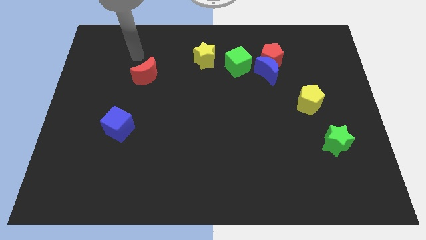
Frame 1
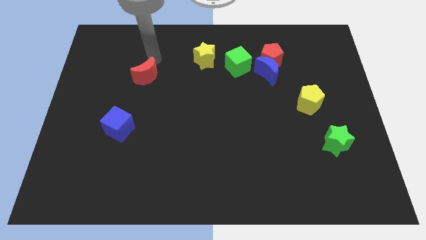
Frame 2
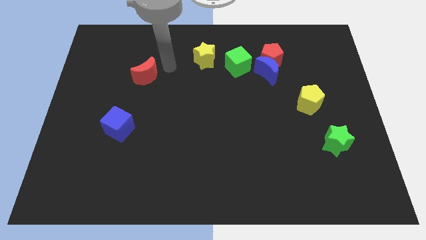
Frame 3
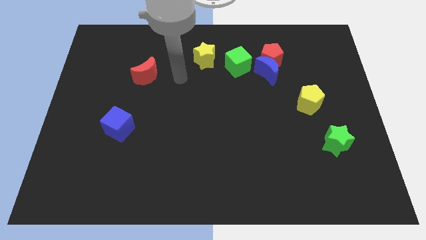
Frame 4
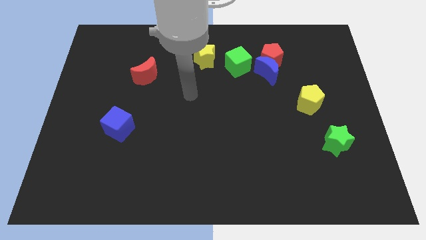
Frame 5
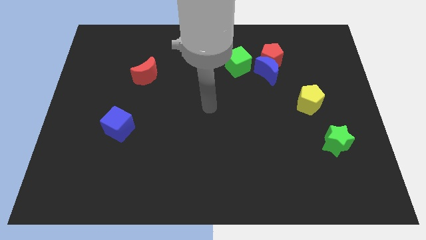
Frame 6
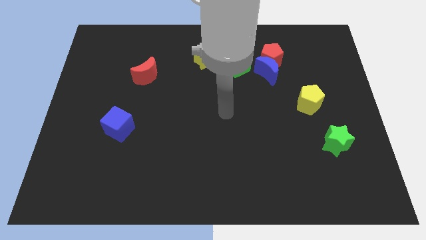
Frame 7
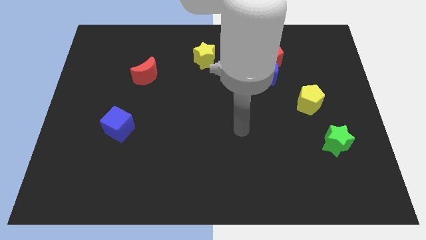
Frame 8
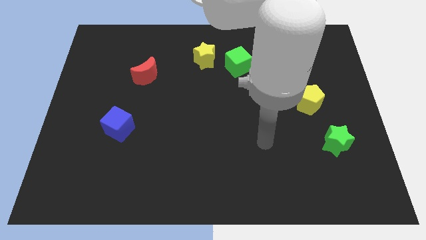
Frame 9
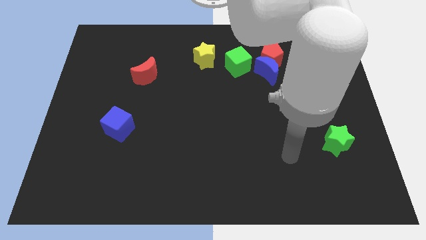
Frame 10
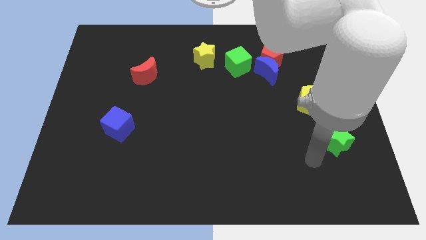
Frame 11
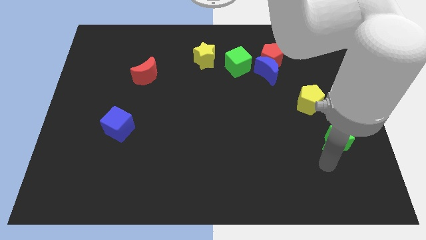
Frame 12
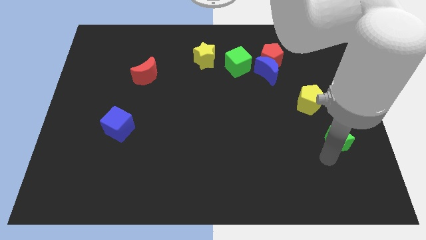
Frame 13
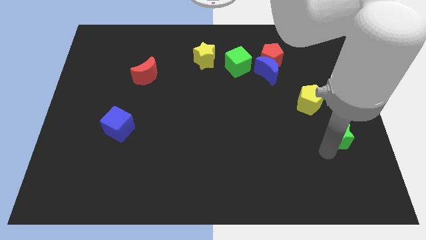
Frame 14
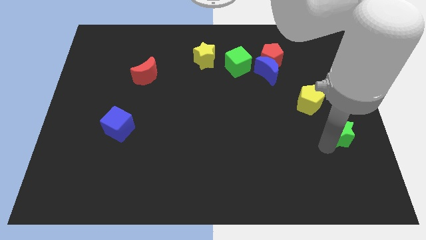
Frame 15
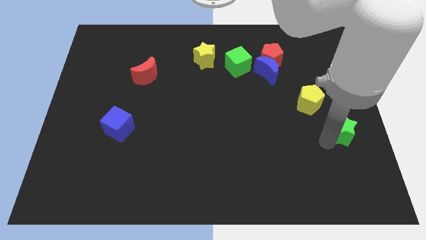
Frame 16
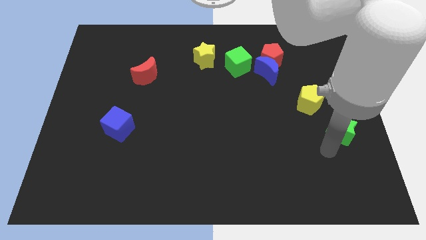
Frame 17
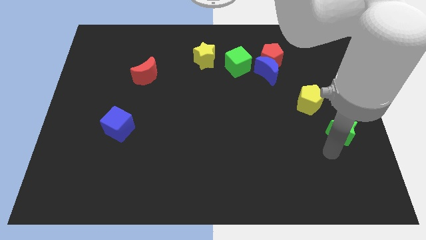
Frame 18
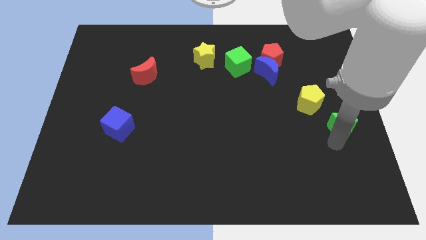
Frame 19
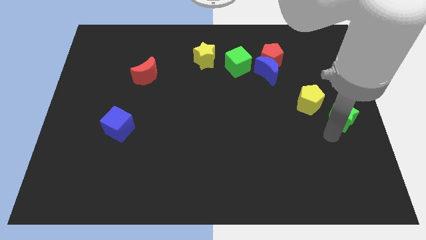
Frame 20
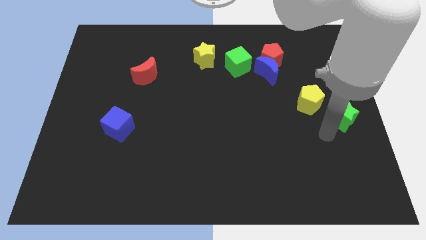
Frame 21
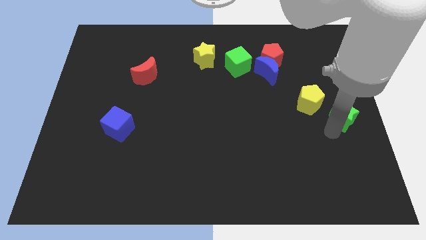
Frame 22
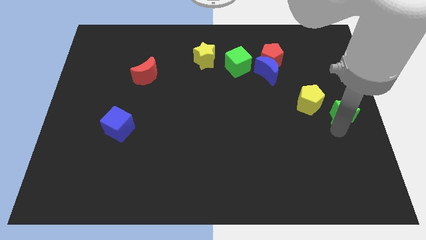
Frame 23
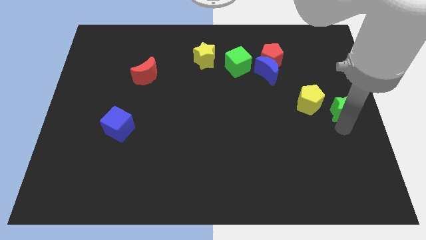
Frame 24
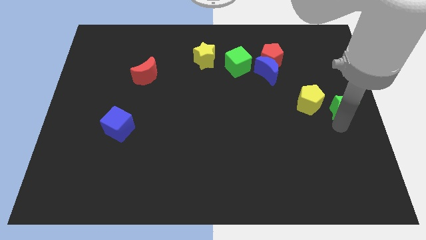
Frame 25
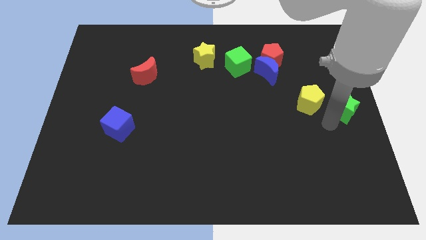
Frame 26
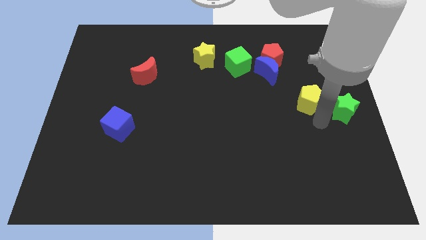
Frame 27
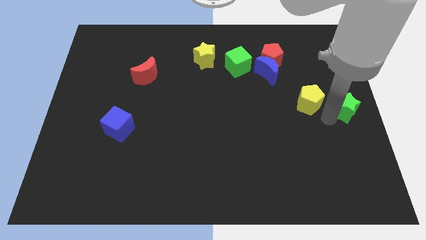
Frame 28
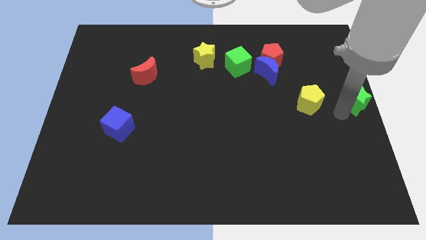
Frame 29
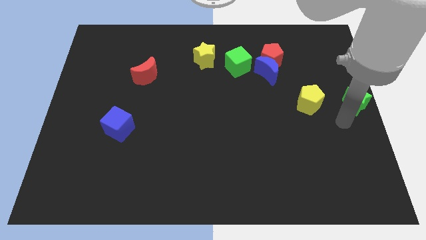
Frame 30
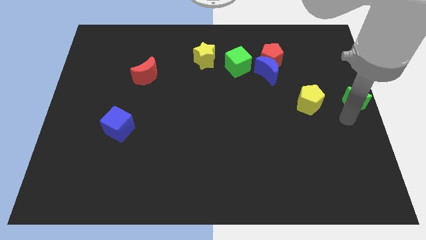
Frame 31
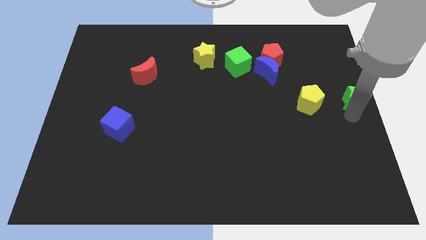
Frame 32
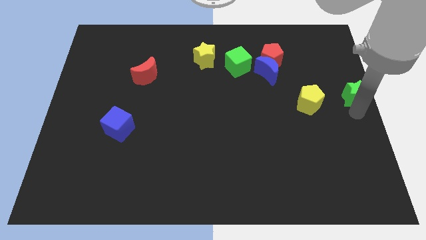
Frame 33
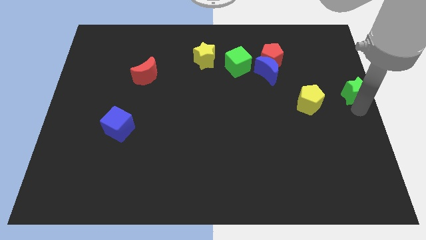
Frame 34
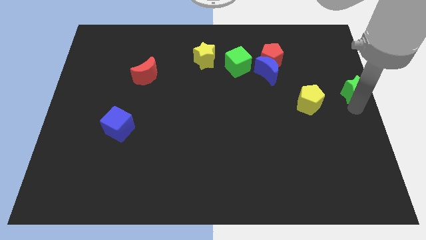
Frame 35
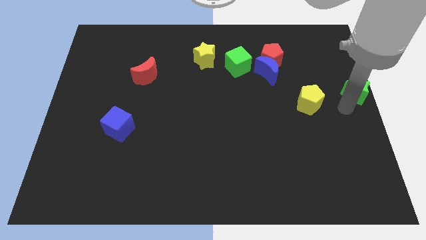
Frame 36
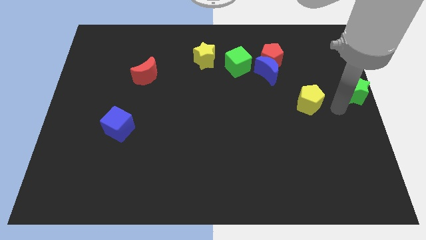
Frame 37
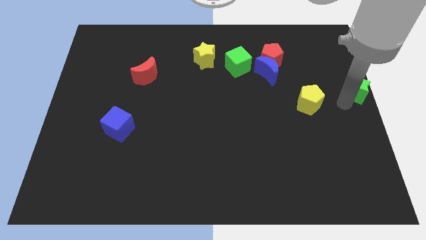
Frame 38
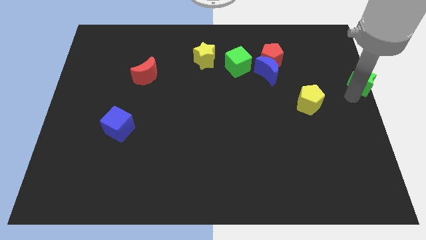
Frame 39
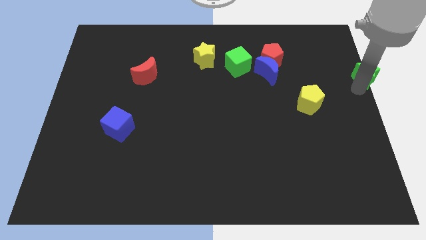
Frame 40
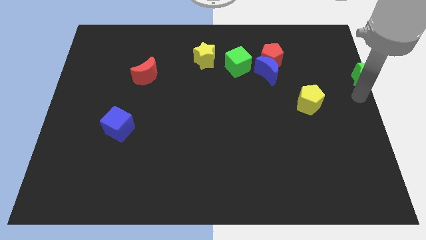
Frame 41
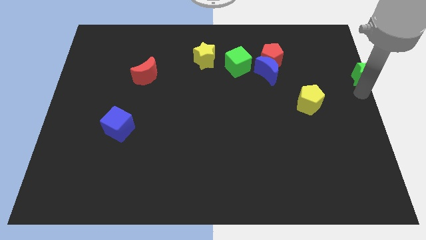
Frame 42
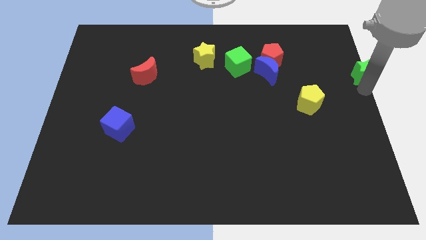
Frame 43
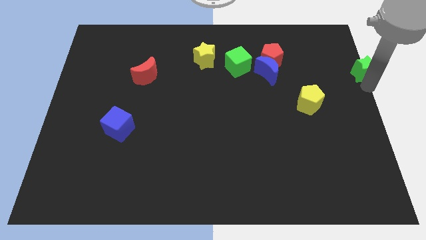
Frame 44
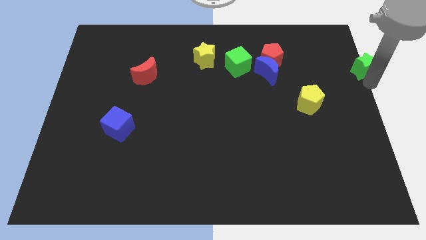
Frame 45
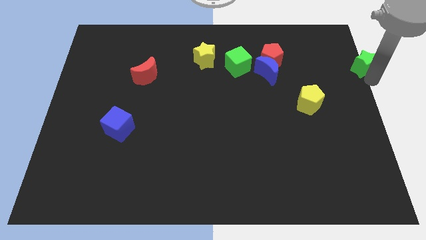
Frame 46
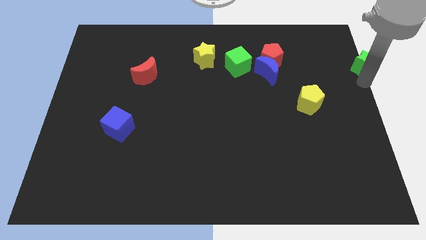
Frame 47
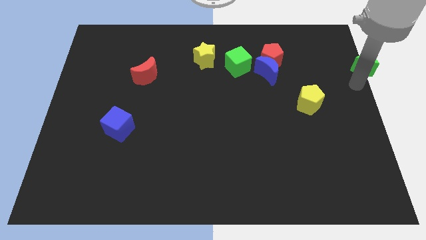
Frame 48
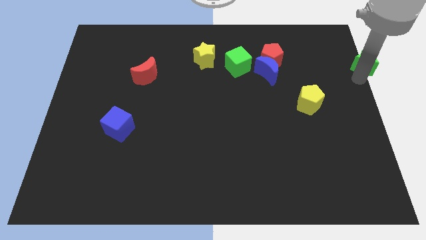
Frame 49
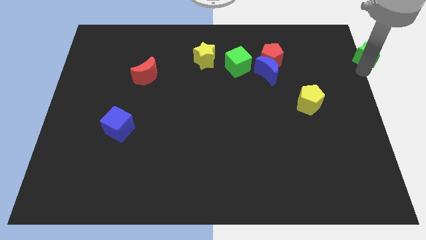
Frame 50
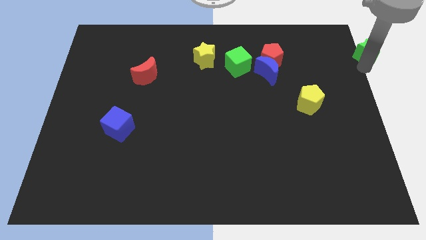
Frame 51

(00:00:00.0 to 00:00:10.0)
slide the green star to the top right corner

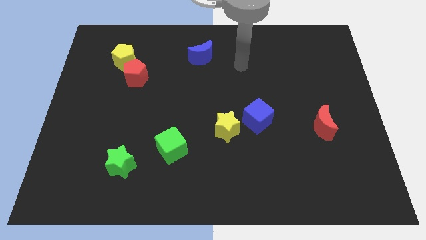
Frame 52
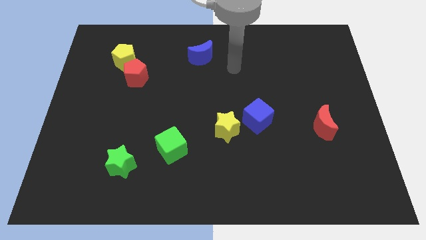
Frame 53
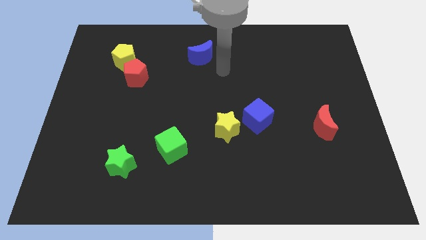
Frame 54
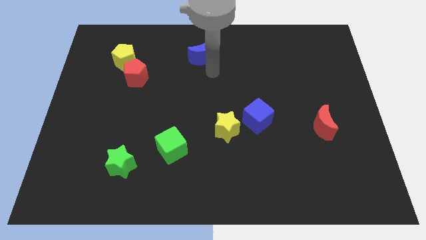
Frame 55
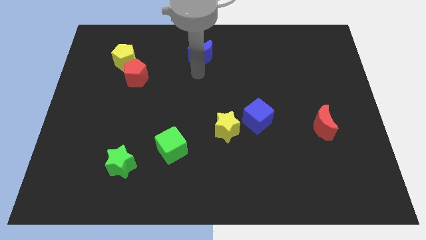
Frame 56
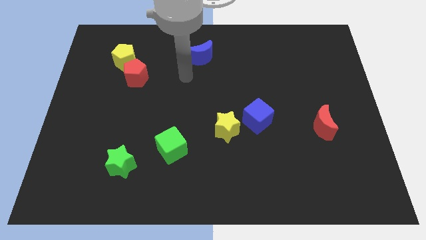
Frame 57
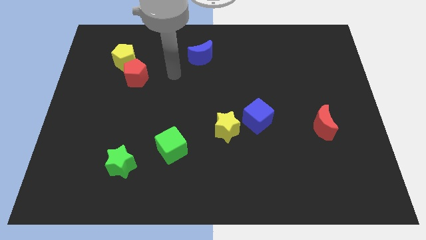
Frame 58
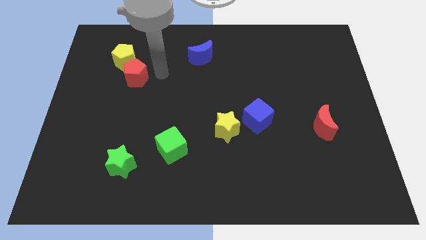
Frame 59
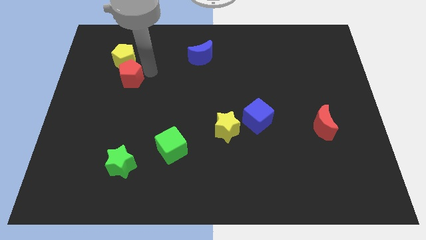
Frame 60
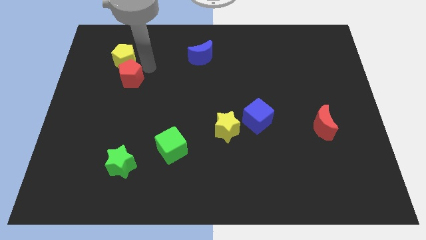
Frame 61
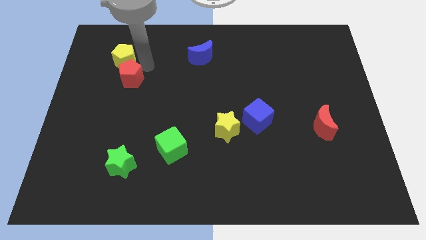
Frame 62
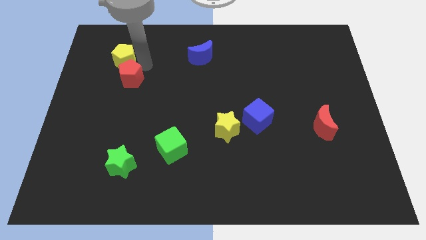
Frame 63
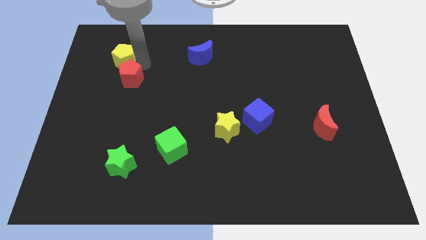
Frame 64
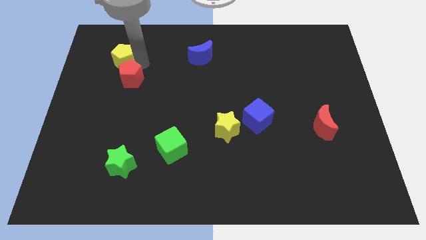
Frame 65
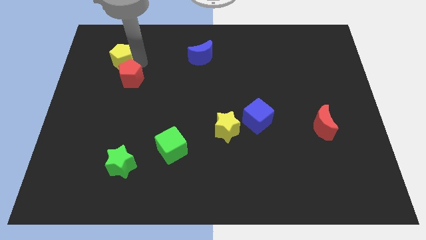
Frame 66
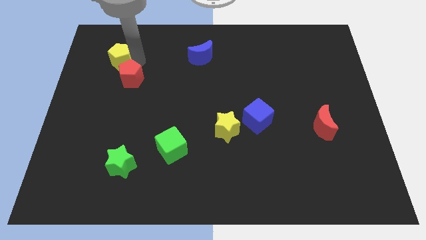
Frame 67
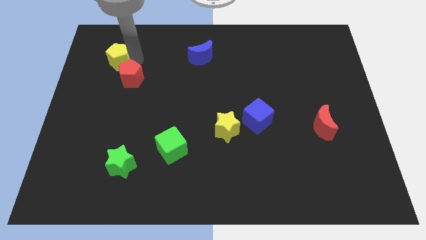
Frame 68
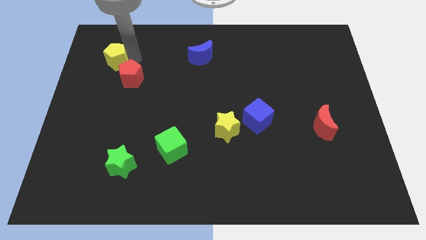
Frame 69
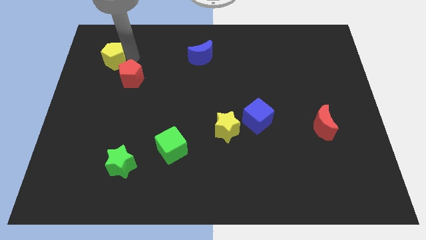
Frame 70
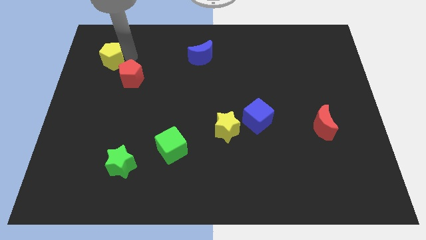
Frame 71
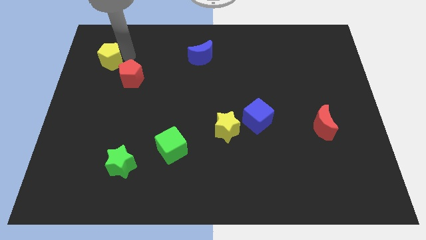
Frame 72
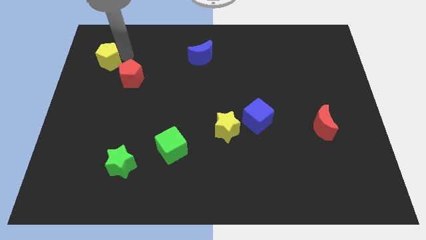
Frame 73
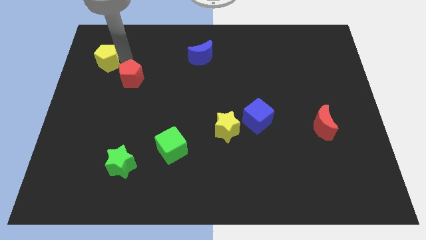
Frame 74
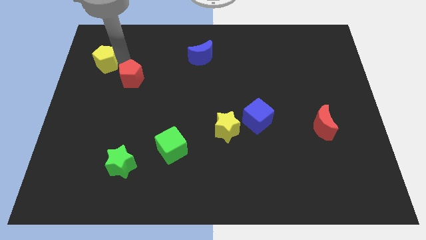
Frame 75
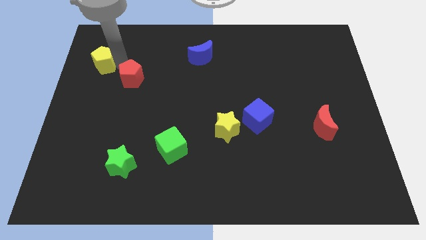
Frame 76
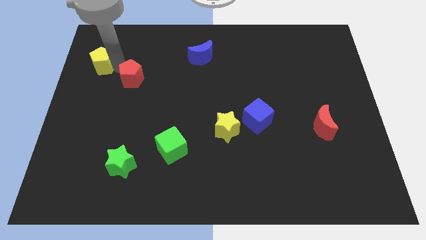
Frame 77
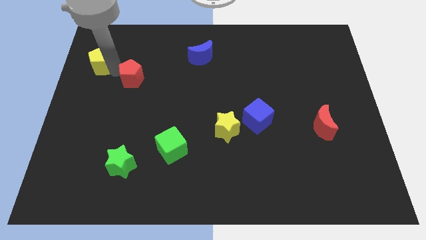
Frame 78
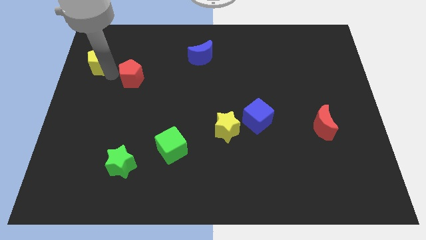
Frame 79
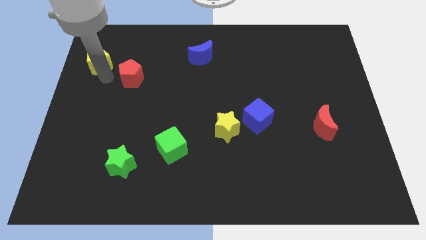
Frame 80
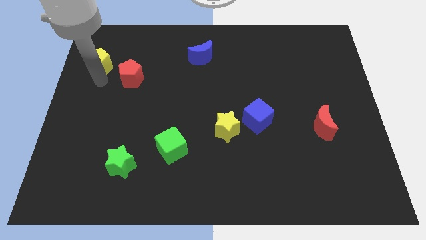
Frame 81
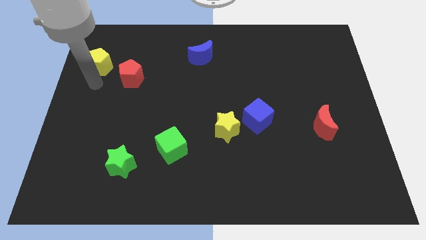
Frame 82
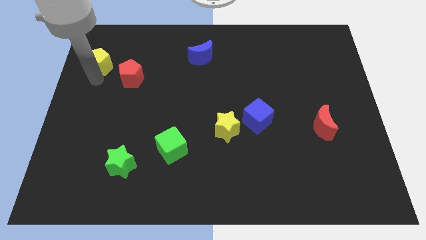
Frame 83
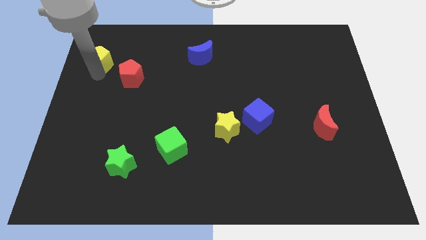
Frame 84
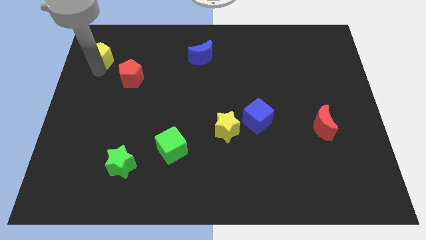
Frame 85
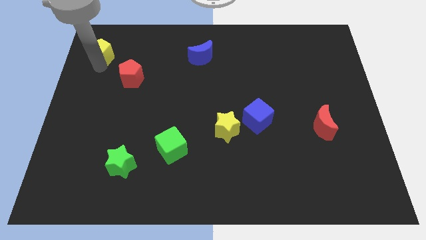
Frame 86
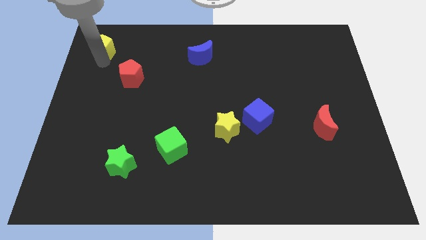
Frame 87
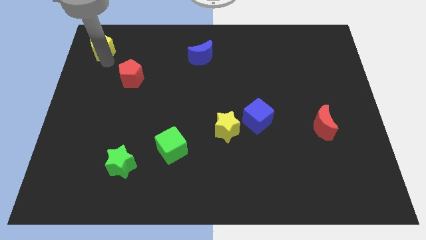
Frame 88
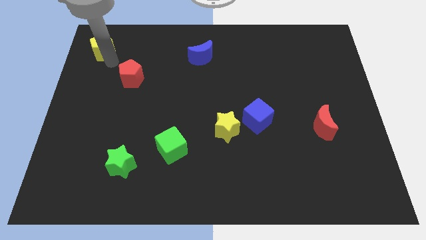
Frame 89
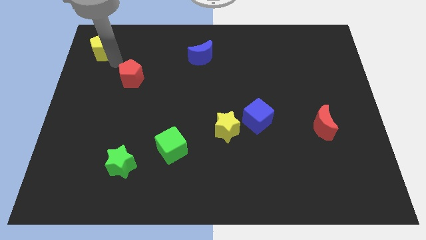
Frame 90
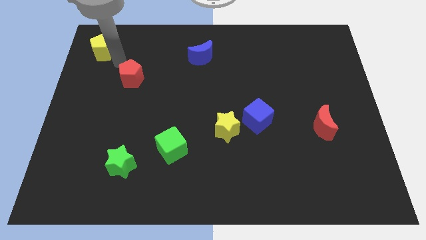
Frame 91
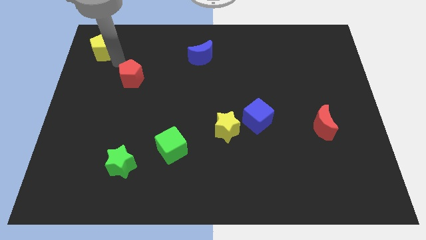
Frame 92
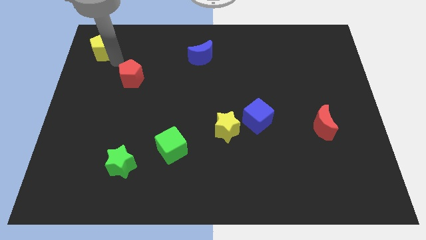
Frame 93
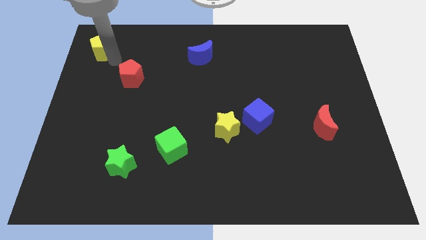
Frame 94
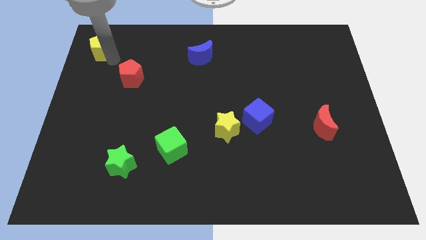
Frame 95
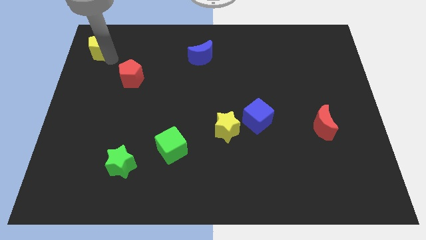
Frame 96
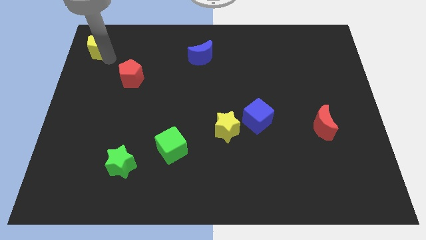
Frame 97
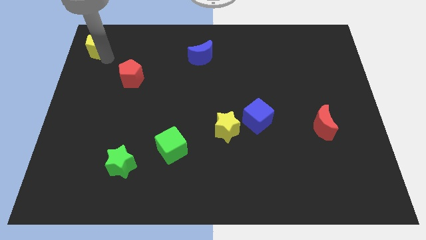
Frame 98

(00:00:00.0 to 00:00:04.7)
push the yellow pentagon to the top left of the board
